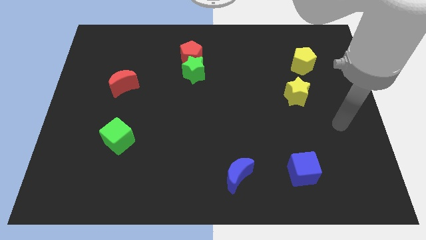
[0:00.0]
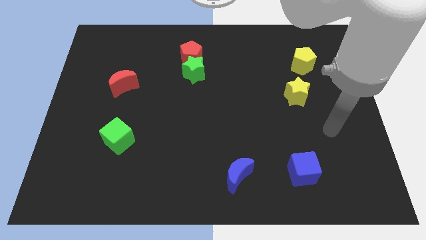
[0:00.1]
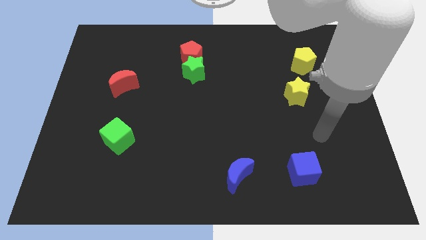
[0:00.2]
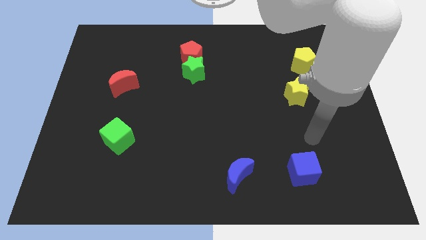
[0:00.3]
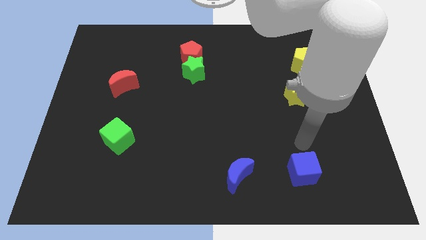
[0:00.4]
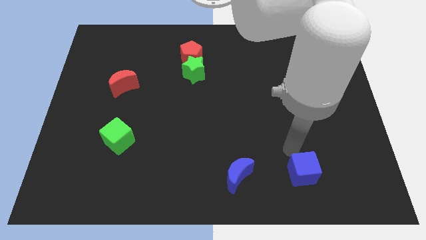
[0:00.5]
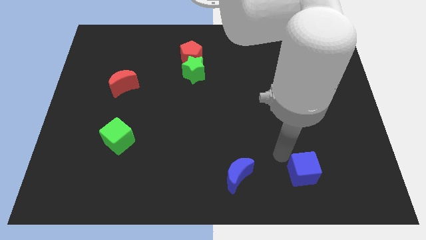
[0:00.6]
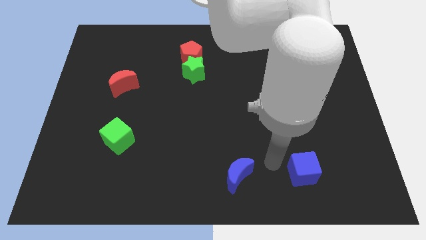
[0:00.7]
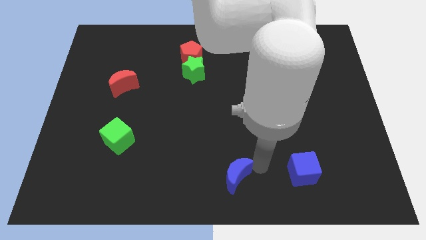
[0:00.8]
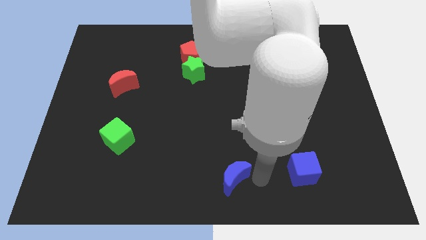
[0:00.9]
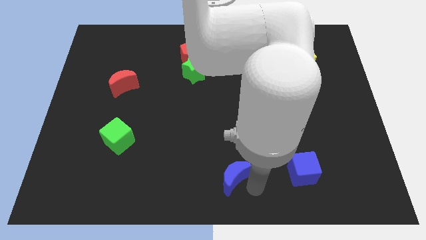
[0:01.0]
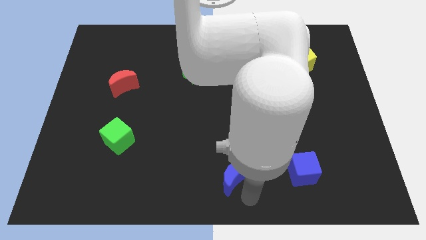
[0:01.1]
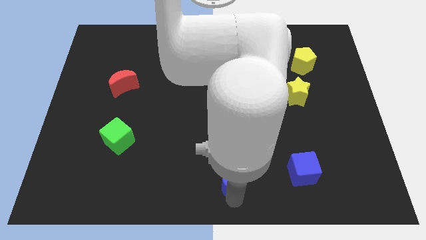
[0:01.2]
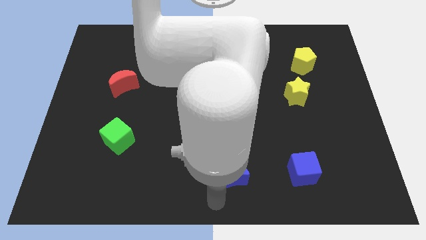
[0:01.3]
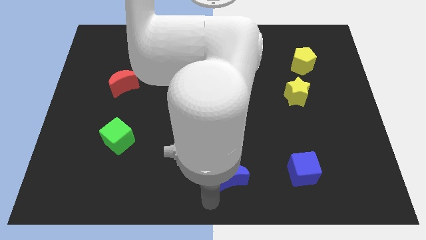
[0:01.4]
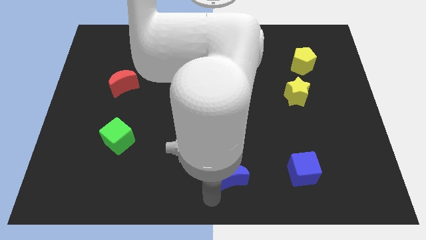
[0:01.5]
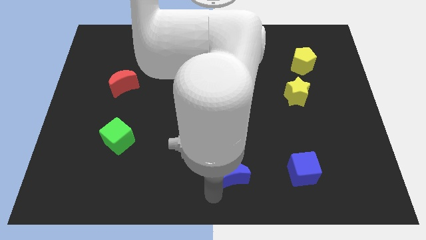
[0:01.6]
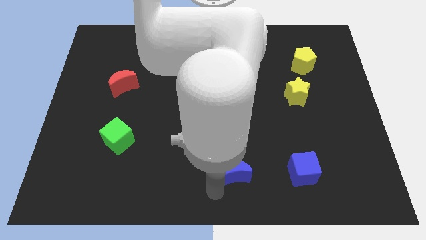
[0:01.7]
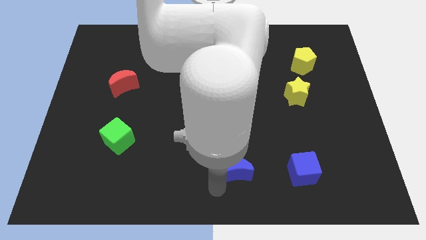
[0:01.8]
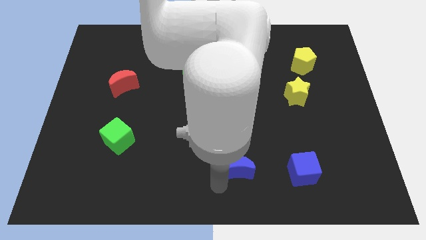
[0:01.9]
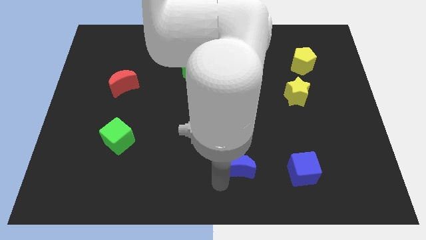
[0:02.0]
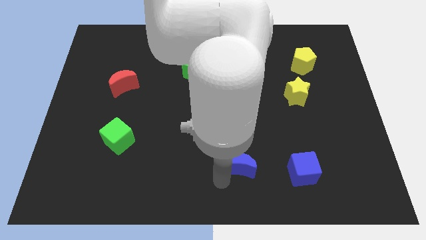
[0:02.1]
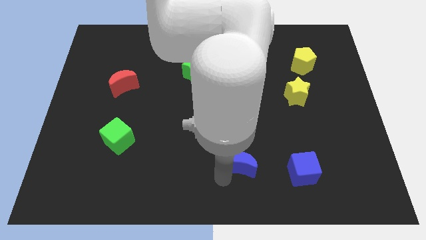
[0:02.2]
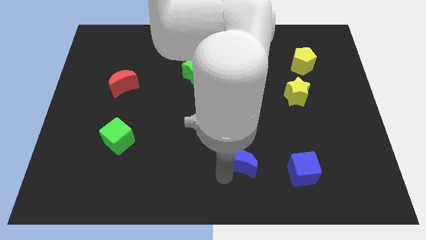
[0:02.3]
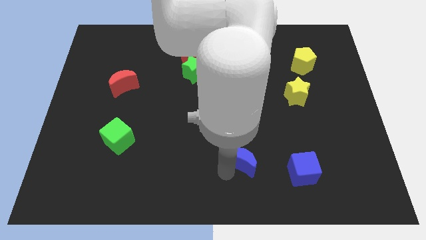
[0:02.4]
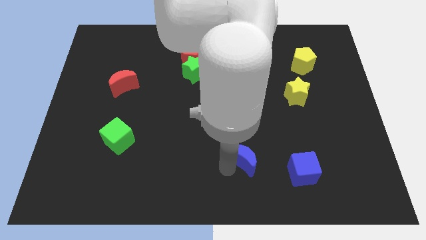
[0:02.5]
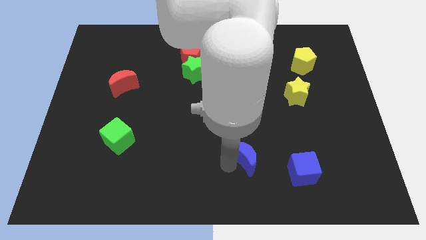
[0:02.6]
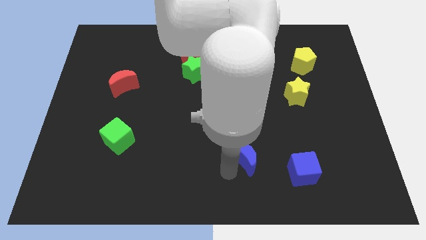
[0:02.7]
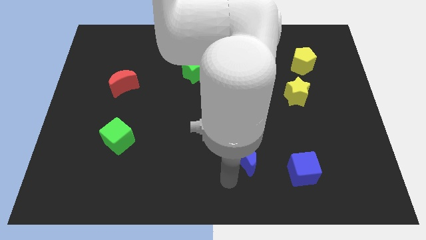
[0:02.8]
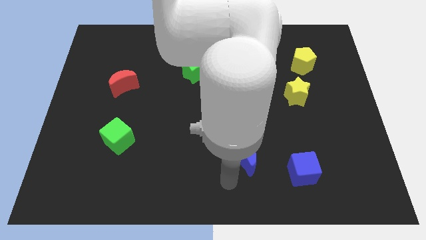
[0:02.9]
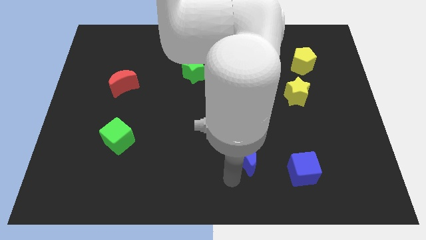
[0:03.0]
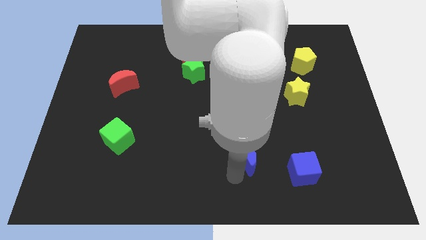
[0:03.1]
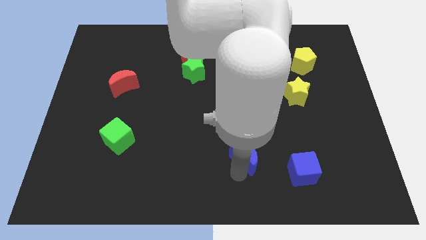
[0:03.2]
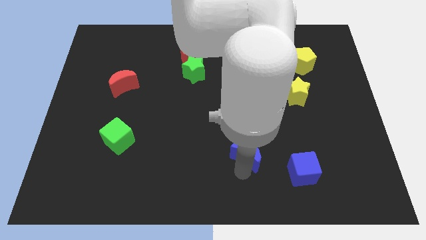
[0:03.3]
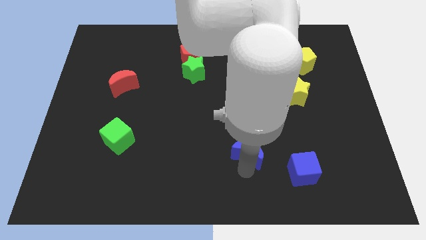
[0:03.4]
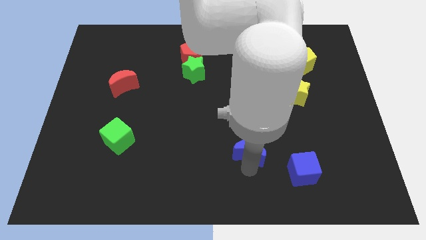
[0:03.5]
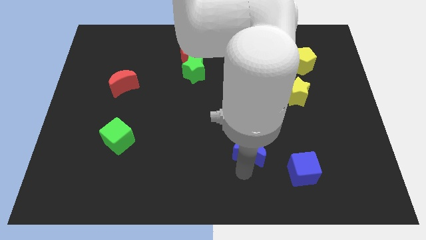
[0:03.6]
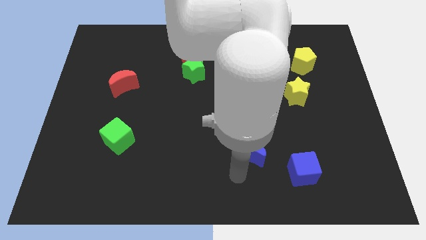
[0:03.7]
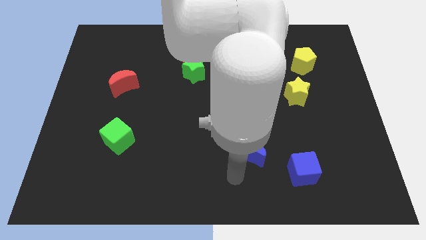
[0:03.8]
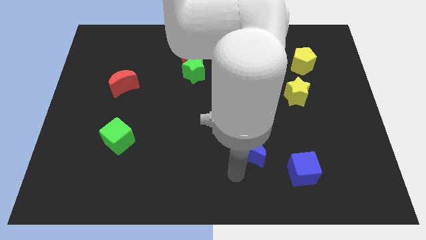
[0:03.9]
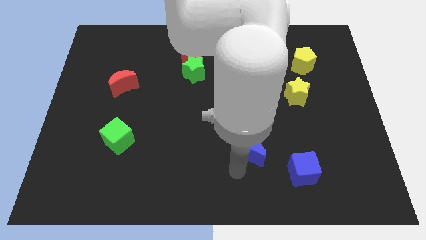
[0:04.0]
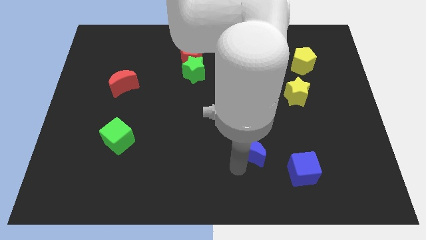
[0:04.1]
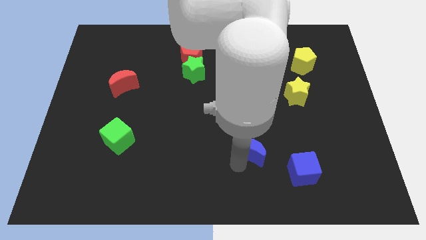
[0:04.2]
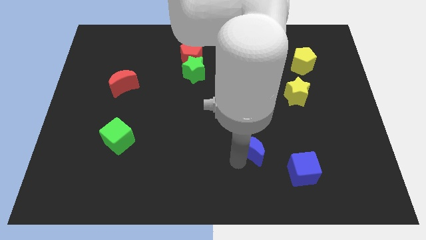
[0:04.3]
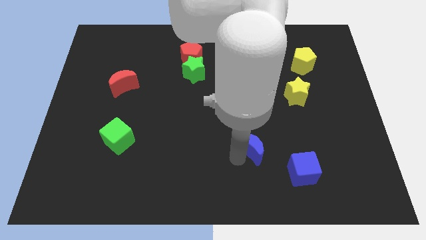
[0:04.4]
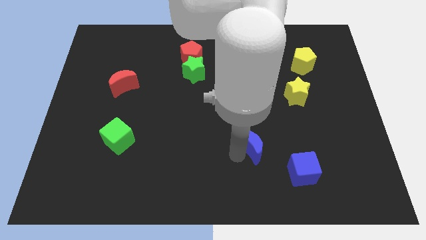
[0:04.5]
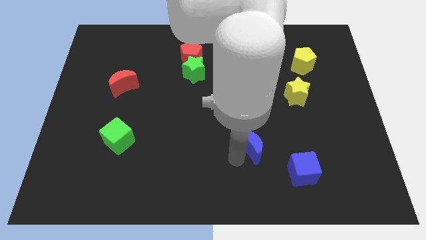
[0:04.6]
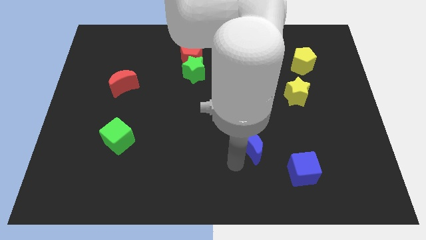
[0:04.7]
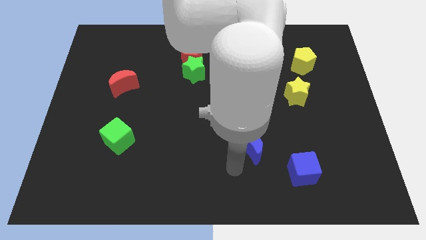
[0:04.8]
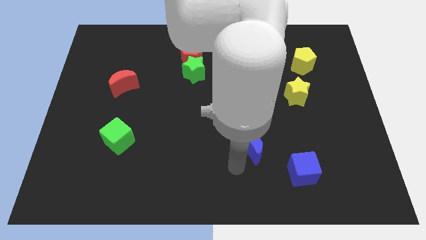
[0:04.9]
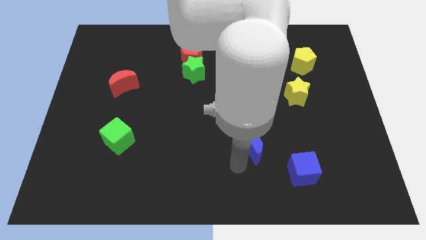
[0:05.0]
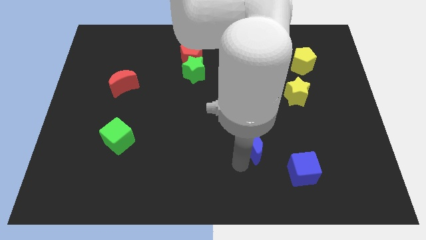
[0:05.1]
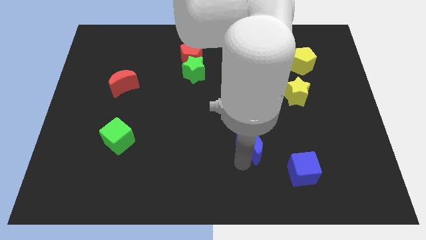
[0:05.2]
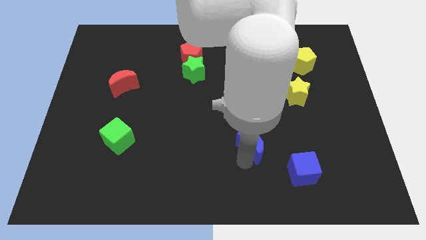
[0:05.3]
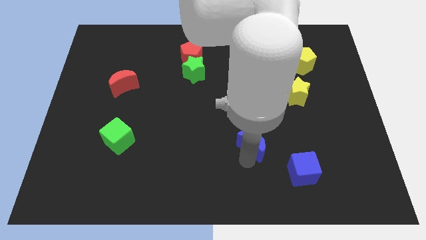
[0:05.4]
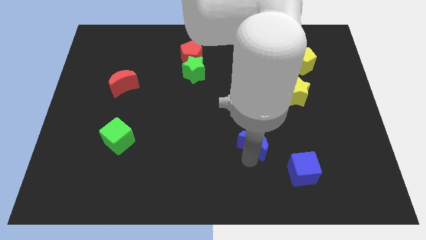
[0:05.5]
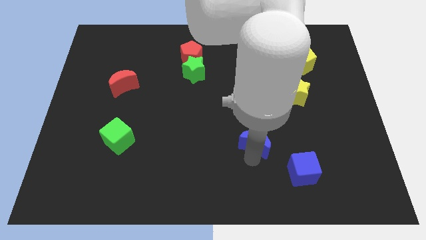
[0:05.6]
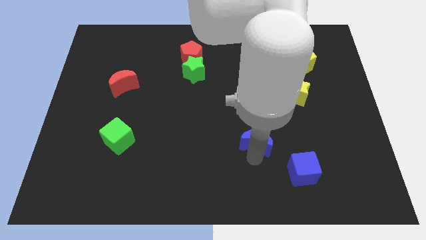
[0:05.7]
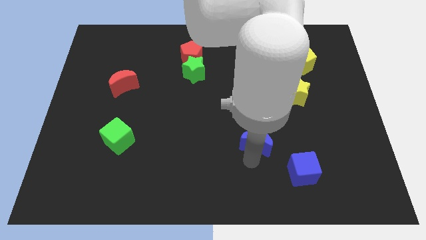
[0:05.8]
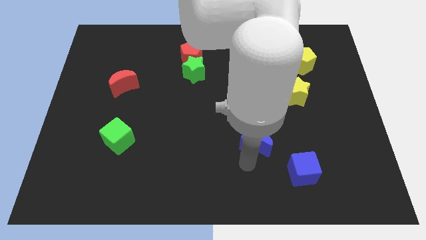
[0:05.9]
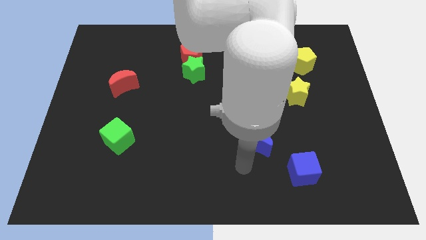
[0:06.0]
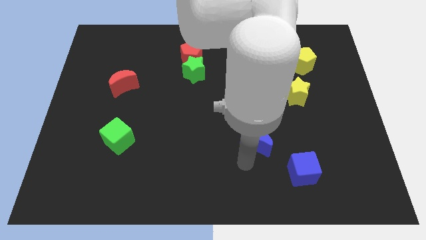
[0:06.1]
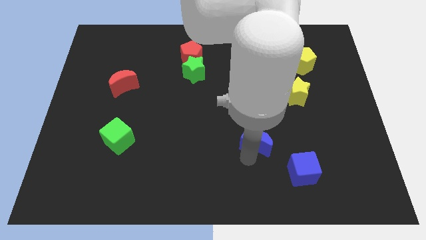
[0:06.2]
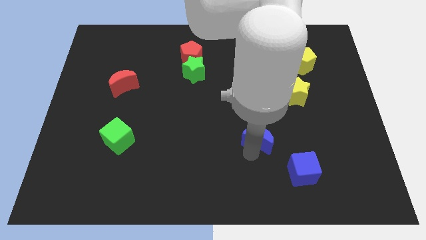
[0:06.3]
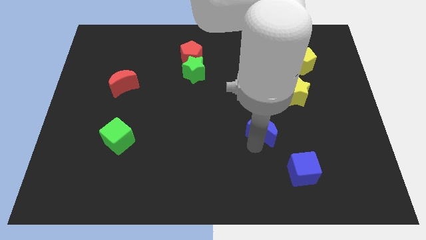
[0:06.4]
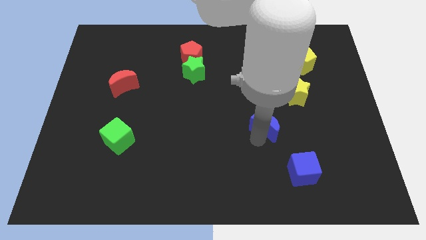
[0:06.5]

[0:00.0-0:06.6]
slide the blue moon to the bottom left side of the yellow star

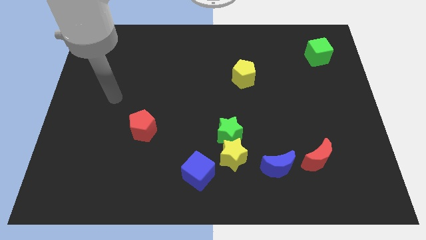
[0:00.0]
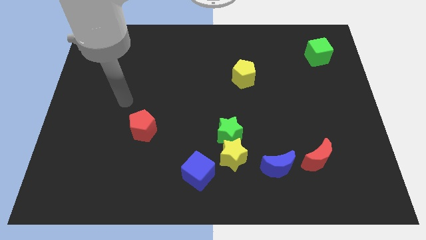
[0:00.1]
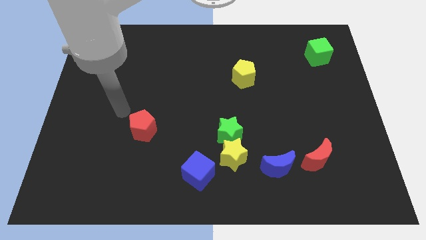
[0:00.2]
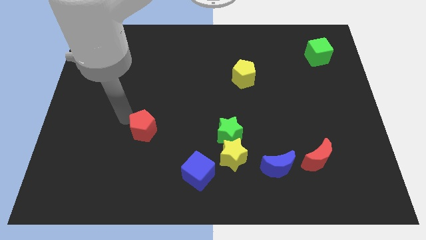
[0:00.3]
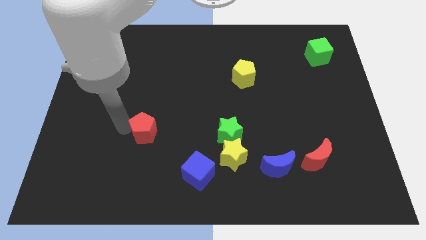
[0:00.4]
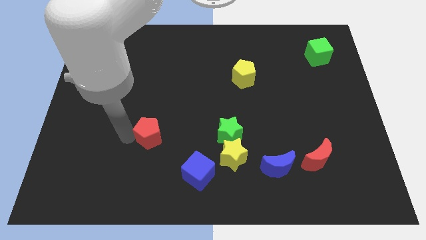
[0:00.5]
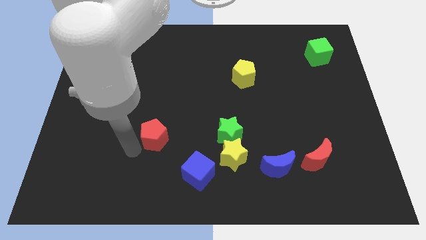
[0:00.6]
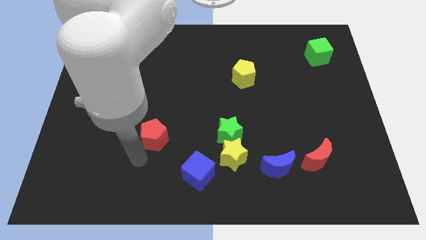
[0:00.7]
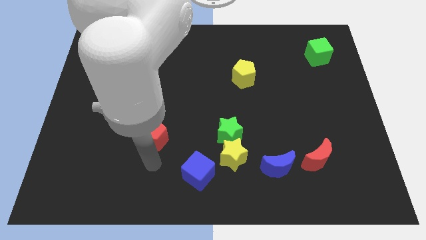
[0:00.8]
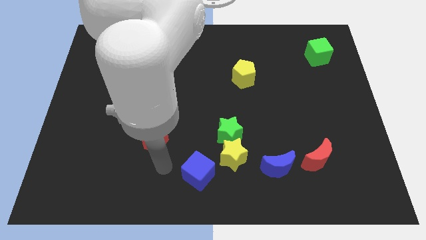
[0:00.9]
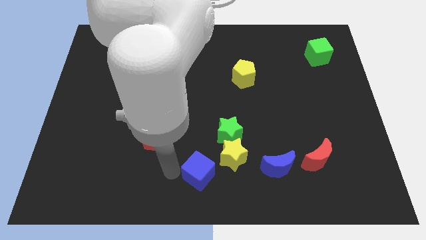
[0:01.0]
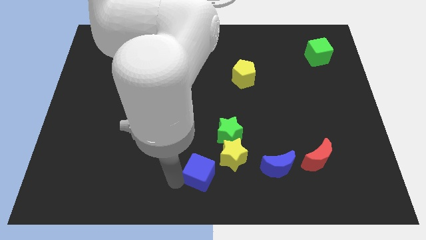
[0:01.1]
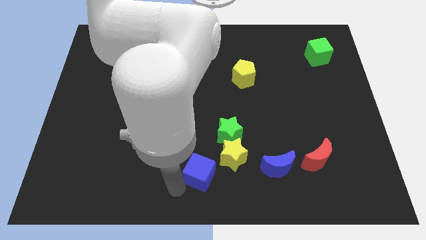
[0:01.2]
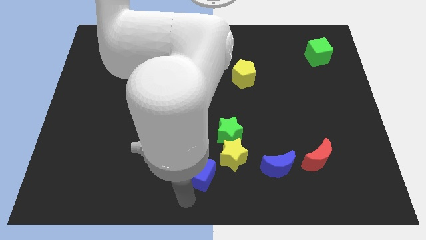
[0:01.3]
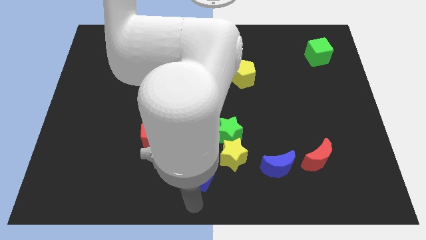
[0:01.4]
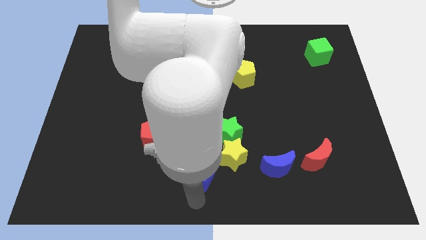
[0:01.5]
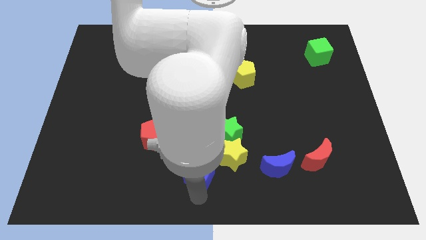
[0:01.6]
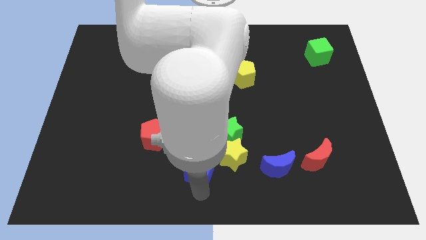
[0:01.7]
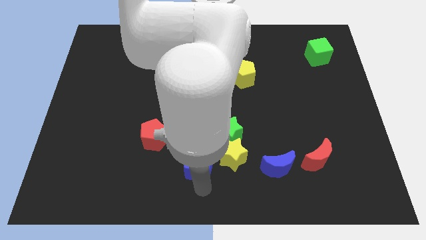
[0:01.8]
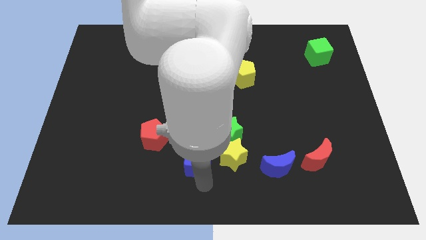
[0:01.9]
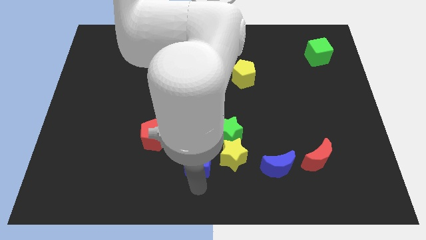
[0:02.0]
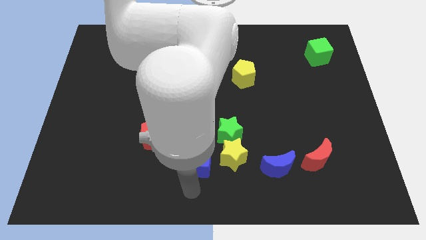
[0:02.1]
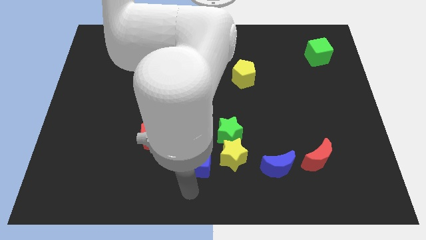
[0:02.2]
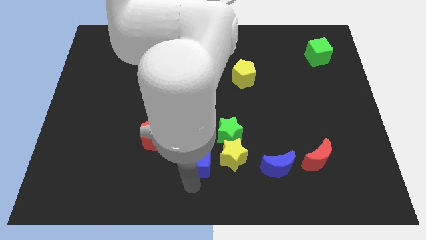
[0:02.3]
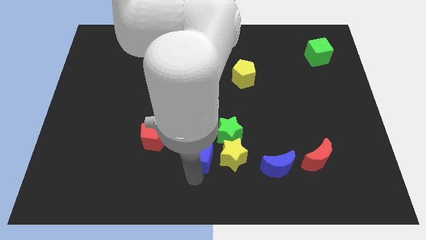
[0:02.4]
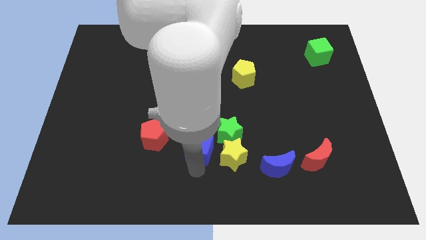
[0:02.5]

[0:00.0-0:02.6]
put the blue cube to the top left of the yellow star
